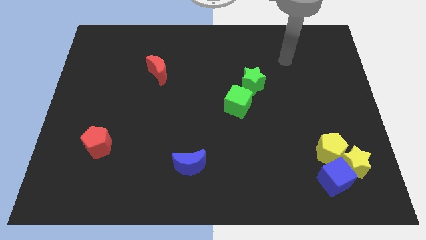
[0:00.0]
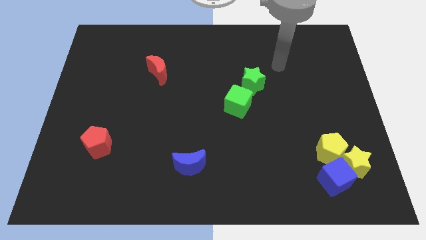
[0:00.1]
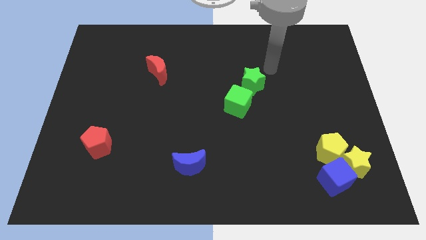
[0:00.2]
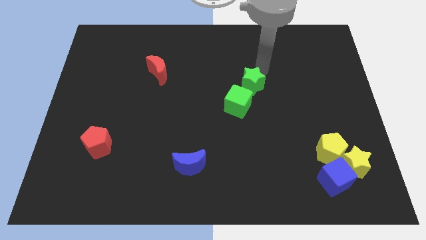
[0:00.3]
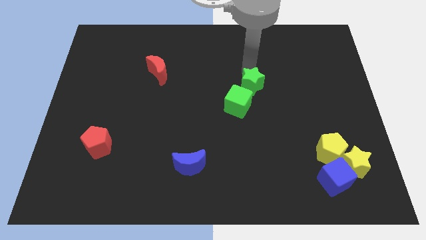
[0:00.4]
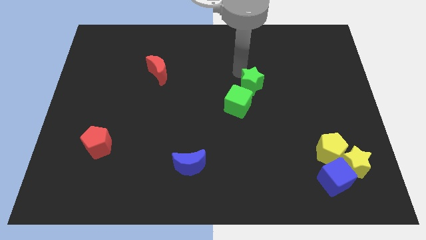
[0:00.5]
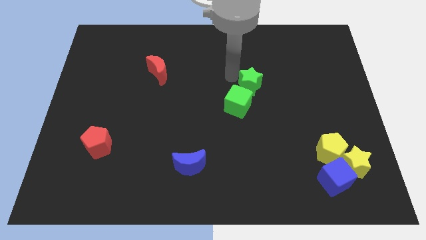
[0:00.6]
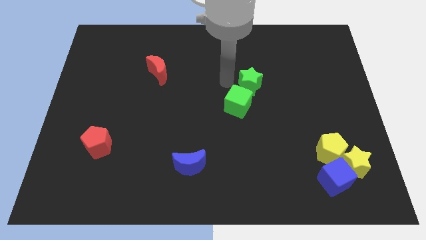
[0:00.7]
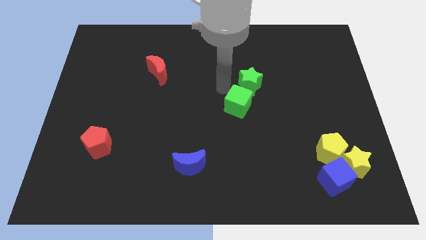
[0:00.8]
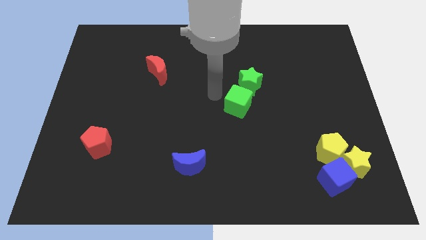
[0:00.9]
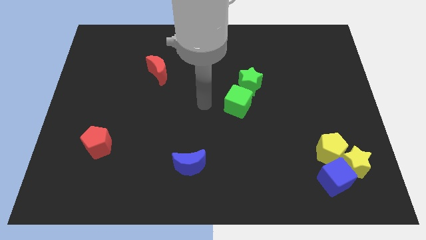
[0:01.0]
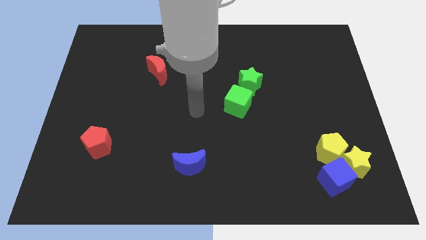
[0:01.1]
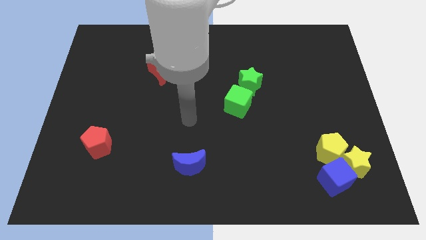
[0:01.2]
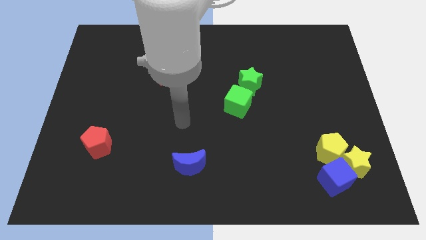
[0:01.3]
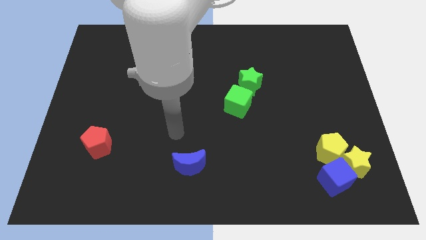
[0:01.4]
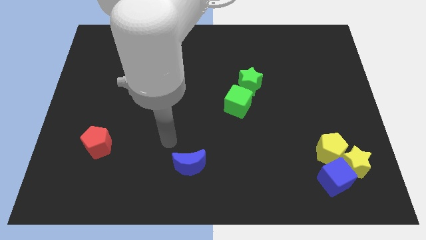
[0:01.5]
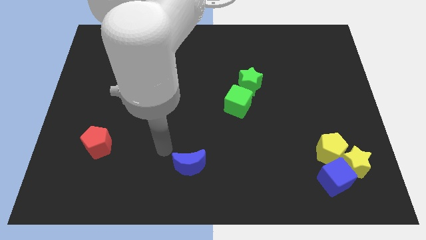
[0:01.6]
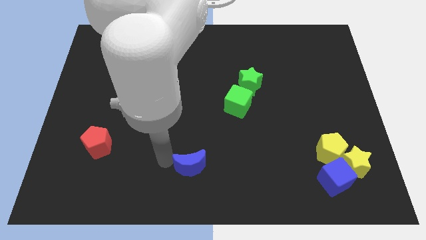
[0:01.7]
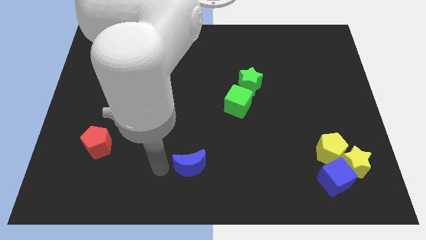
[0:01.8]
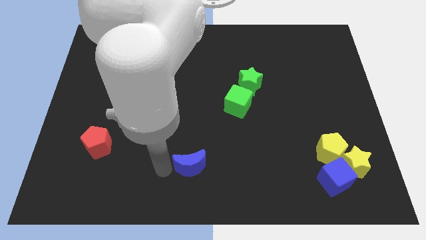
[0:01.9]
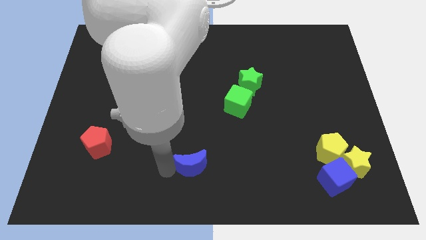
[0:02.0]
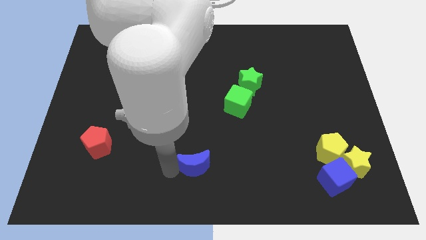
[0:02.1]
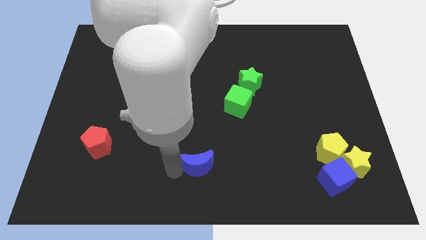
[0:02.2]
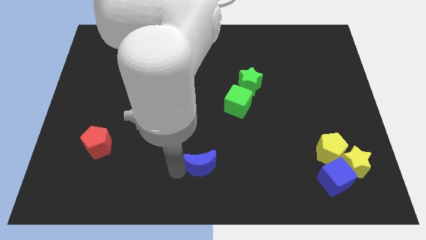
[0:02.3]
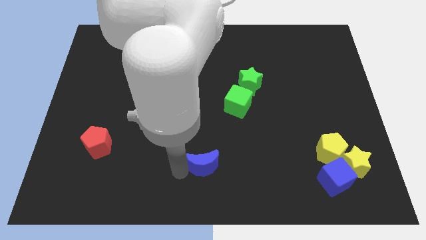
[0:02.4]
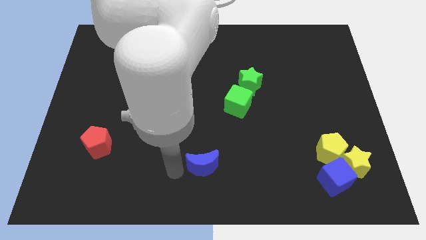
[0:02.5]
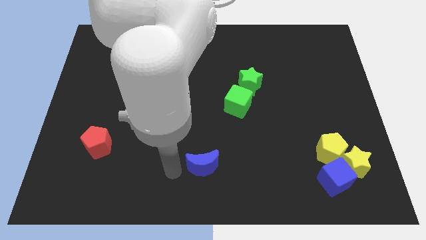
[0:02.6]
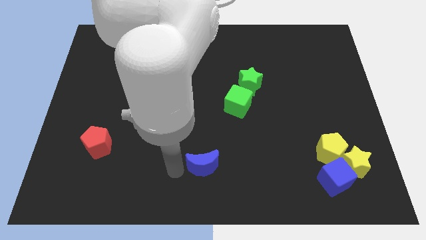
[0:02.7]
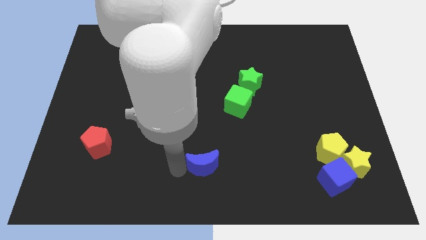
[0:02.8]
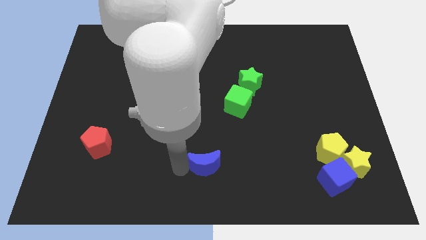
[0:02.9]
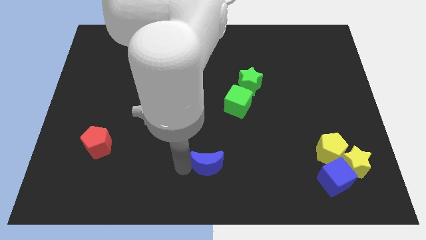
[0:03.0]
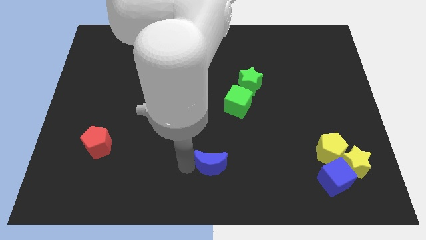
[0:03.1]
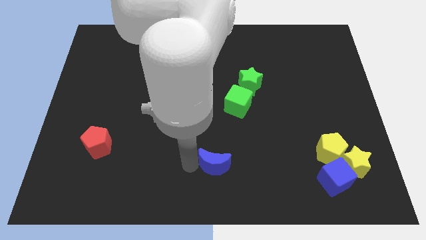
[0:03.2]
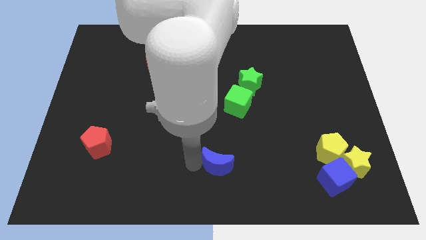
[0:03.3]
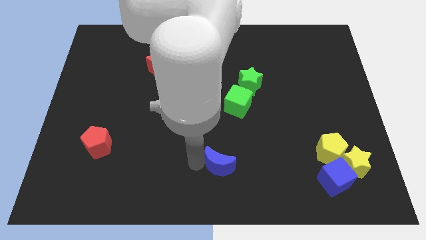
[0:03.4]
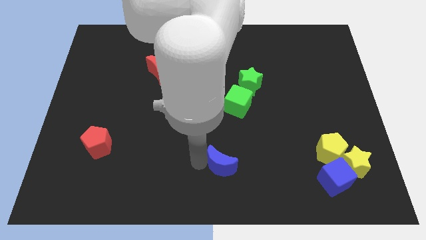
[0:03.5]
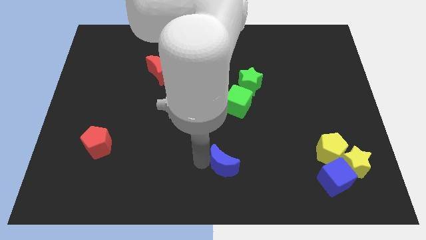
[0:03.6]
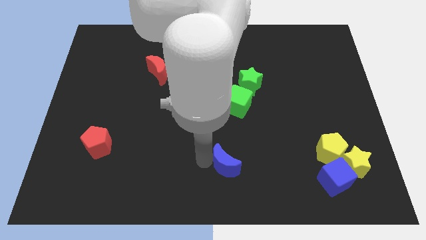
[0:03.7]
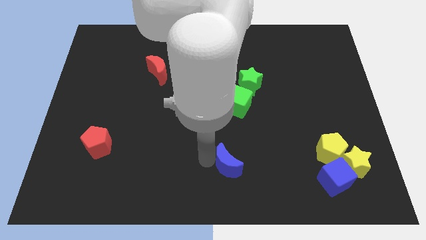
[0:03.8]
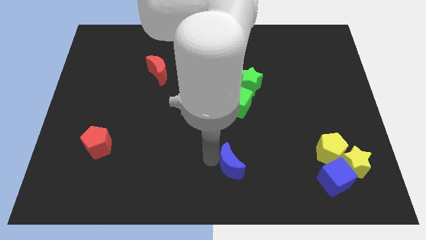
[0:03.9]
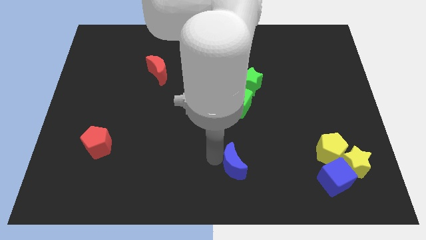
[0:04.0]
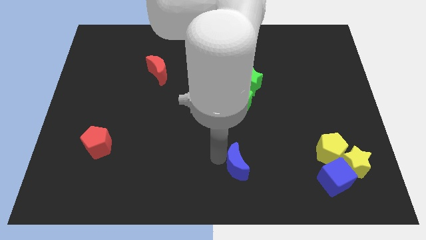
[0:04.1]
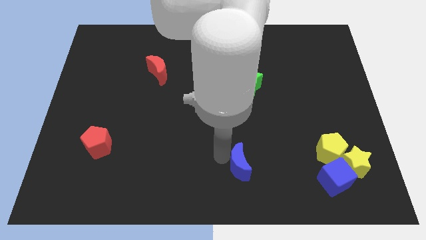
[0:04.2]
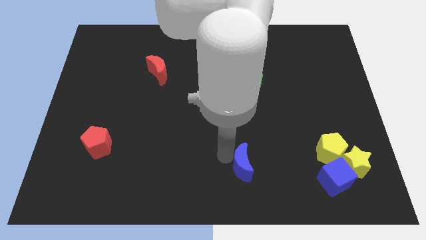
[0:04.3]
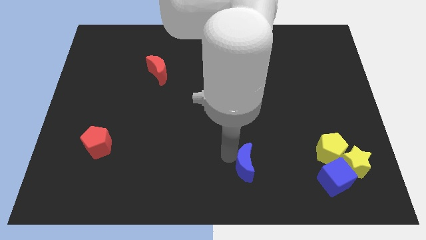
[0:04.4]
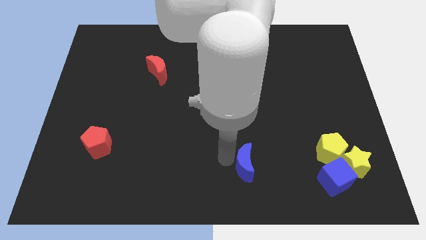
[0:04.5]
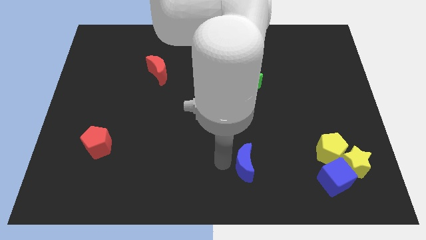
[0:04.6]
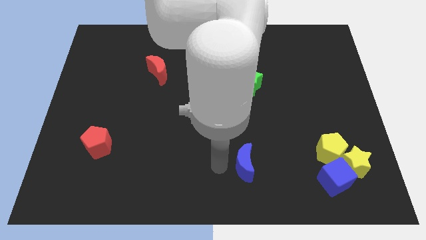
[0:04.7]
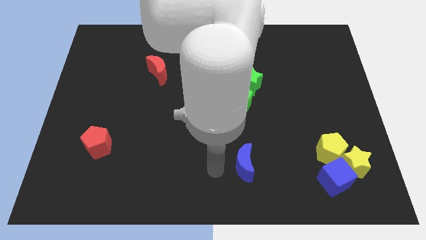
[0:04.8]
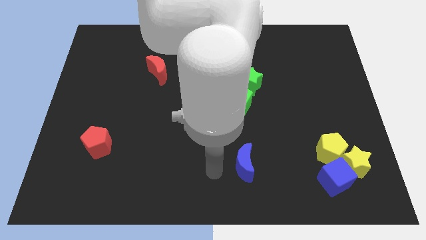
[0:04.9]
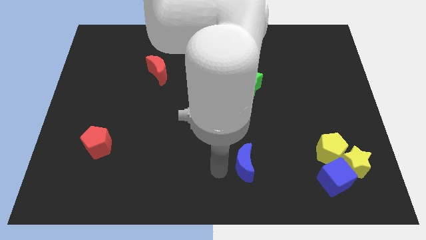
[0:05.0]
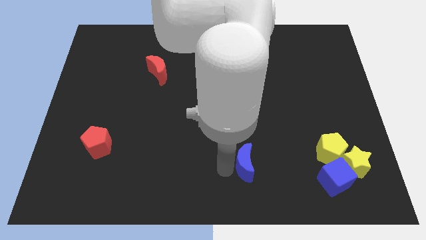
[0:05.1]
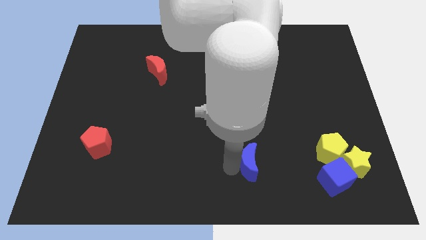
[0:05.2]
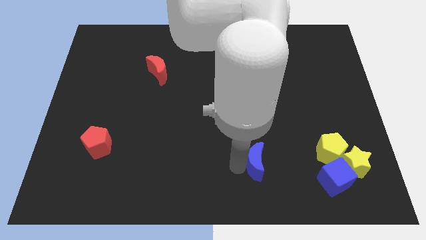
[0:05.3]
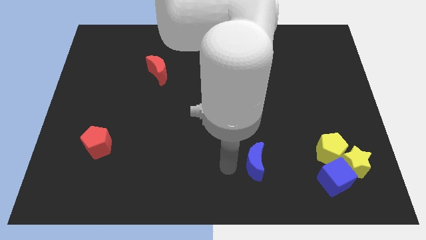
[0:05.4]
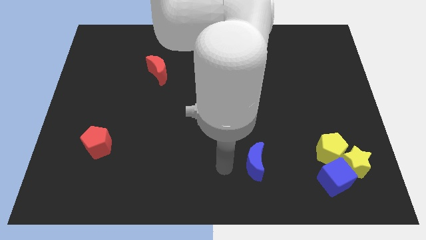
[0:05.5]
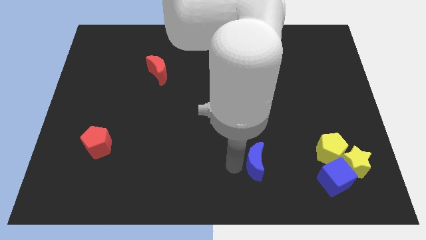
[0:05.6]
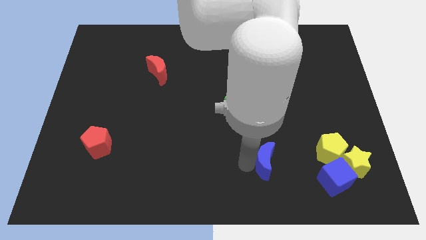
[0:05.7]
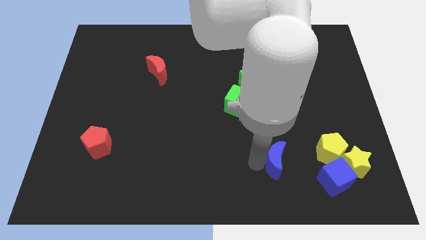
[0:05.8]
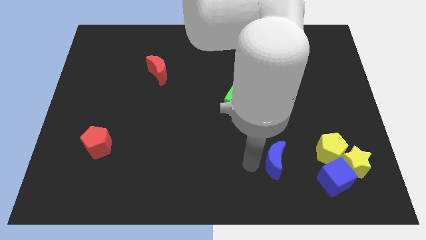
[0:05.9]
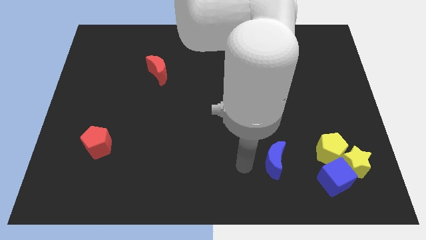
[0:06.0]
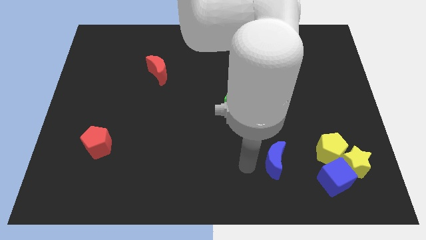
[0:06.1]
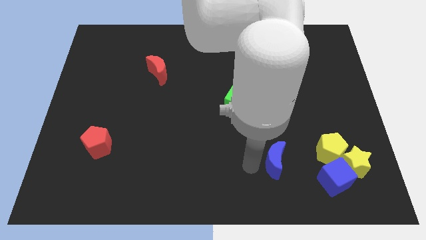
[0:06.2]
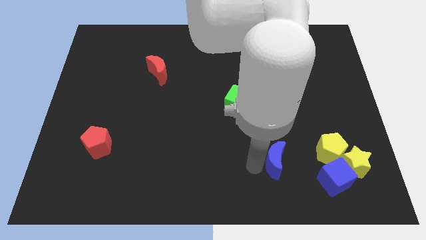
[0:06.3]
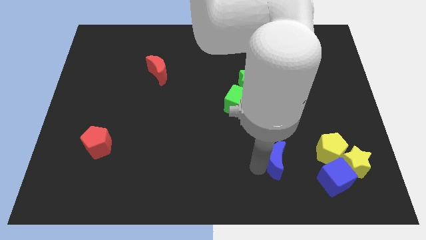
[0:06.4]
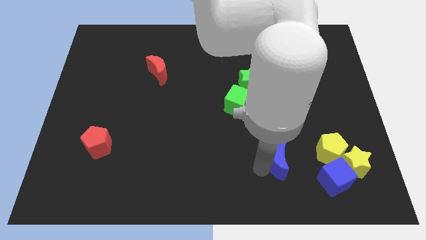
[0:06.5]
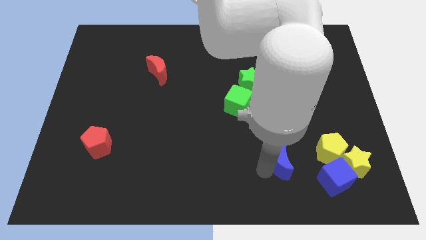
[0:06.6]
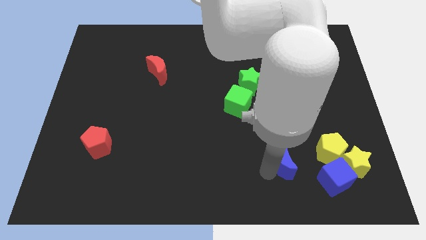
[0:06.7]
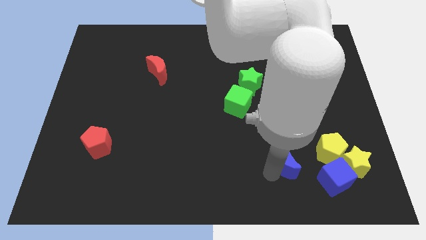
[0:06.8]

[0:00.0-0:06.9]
move the blue moon diagonally up and to the left of the blue cube

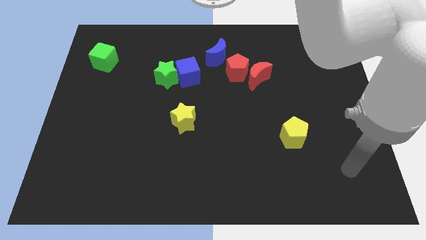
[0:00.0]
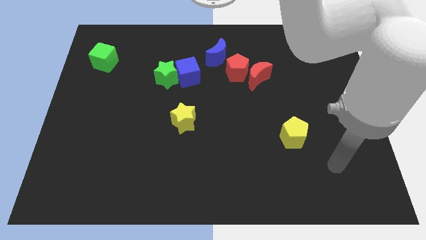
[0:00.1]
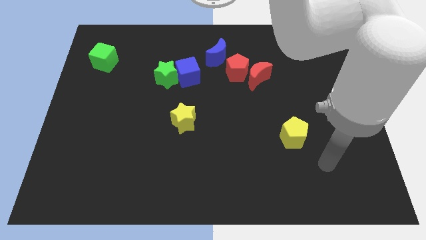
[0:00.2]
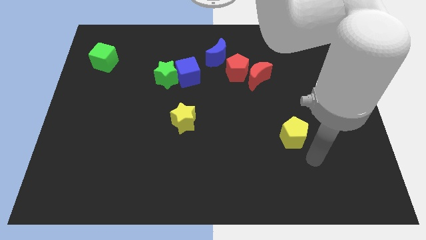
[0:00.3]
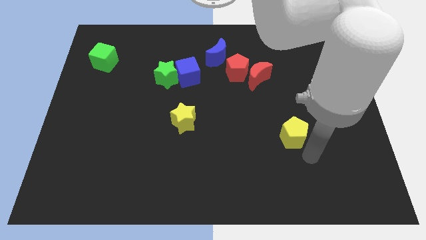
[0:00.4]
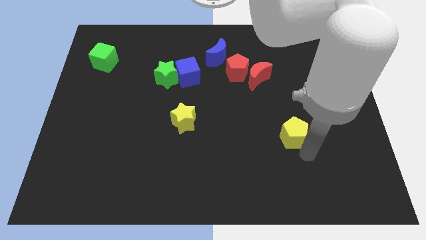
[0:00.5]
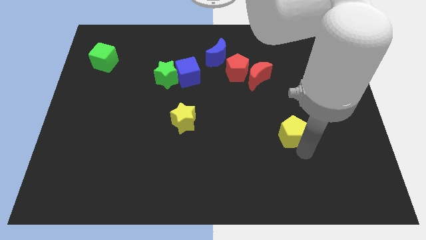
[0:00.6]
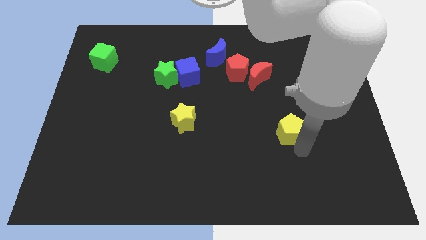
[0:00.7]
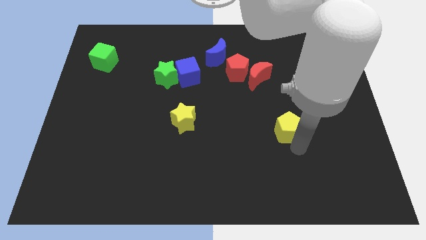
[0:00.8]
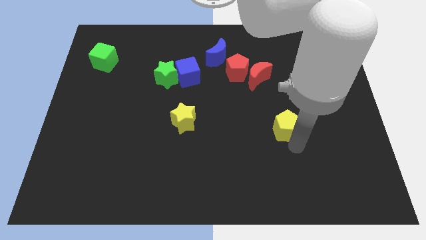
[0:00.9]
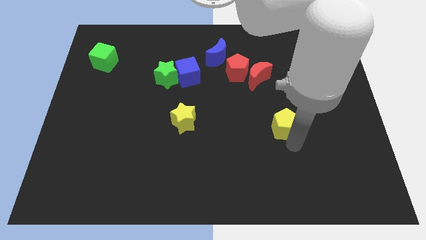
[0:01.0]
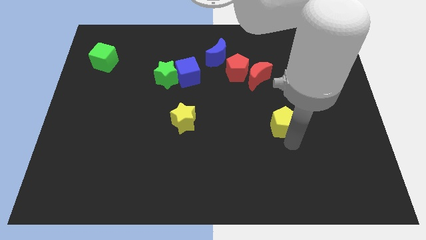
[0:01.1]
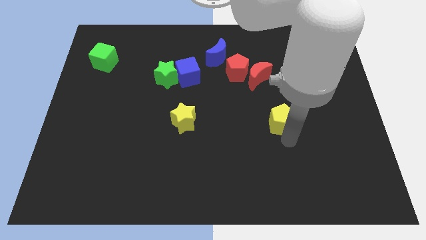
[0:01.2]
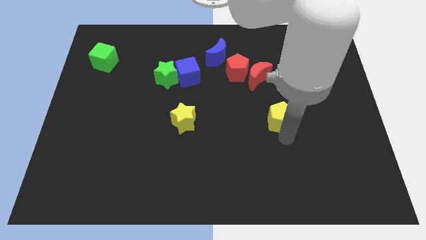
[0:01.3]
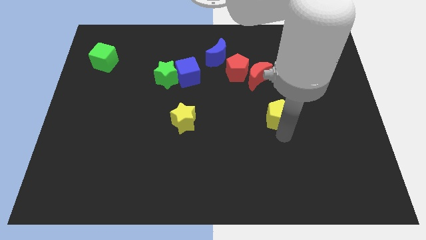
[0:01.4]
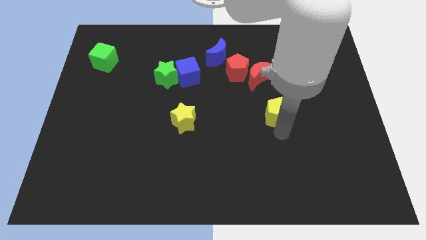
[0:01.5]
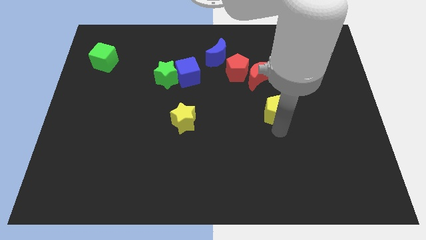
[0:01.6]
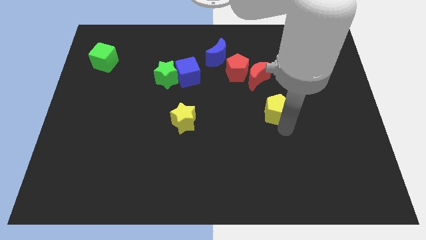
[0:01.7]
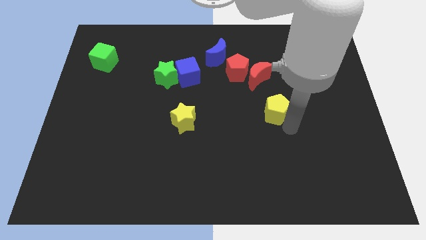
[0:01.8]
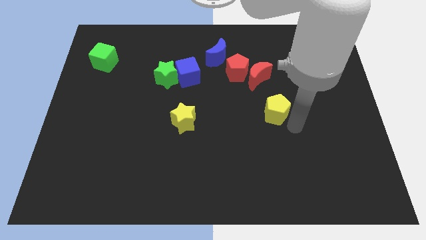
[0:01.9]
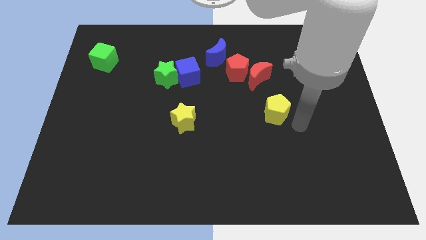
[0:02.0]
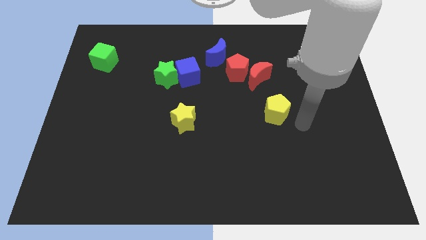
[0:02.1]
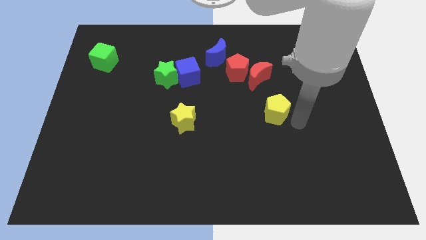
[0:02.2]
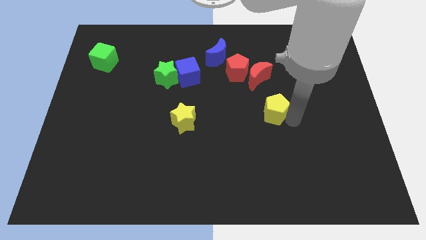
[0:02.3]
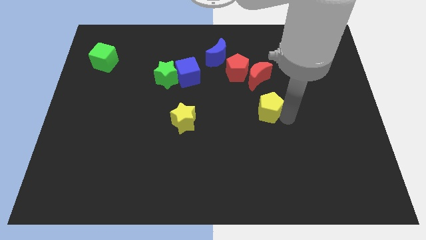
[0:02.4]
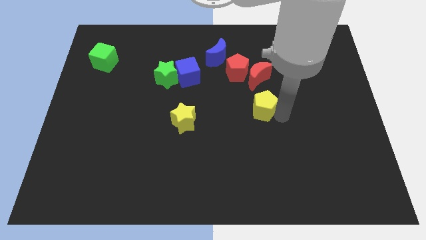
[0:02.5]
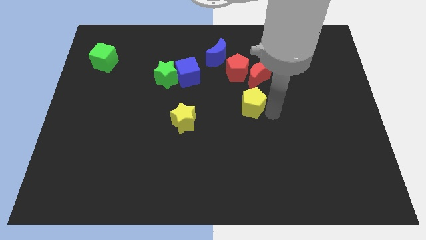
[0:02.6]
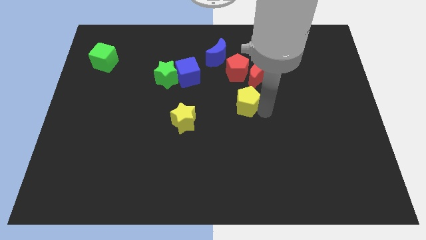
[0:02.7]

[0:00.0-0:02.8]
slide the yellow pentagon to the bottom left of the red moon
